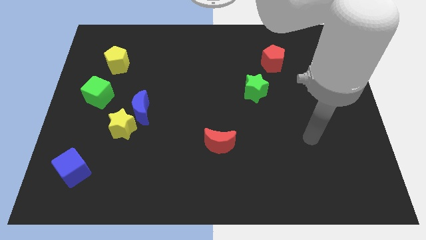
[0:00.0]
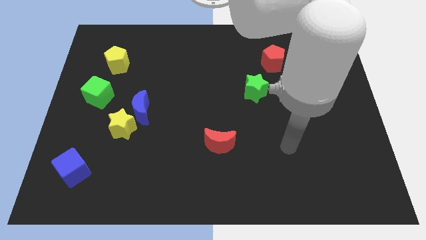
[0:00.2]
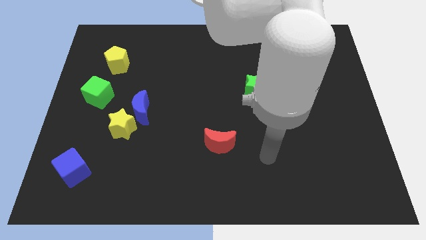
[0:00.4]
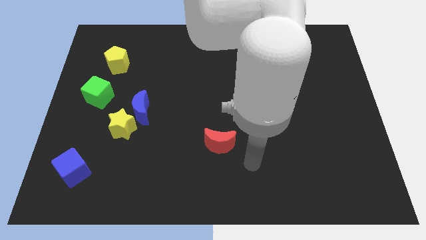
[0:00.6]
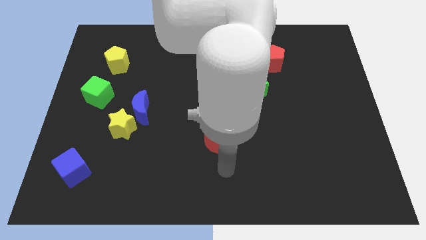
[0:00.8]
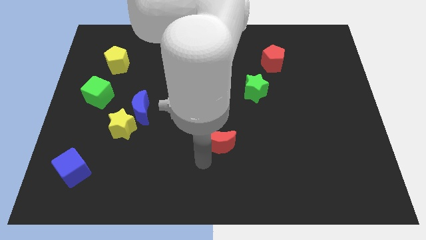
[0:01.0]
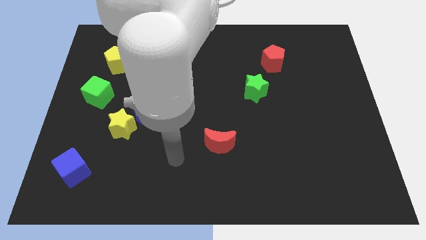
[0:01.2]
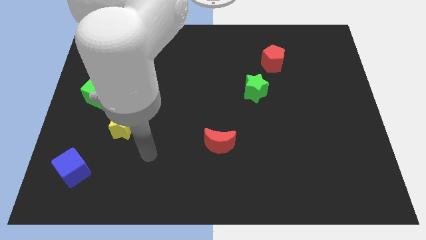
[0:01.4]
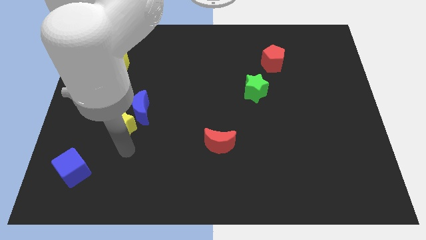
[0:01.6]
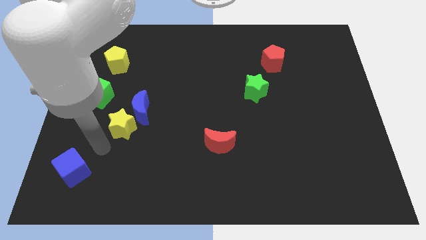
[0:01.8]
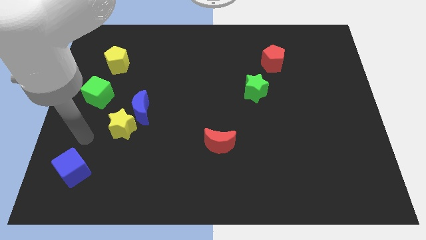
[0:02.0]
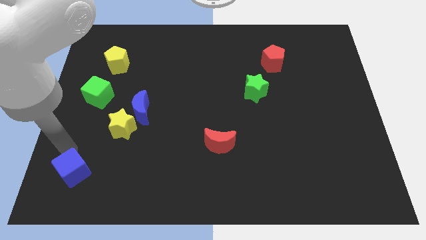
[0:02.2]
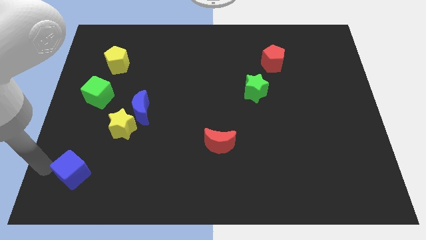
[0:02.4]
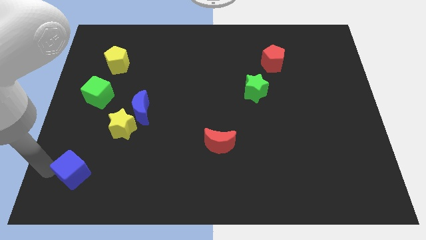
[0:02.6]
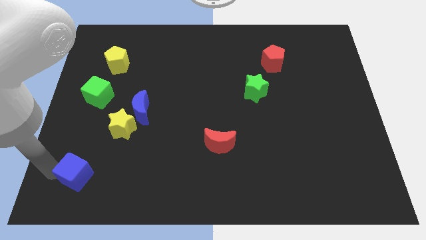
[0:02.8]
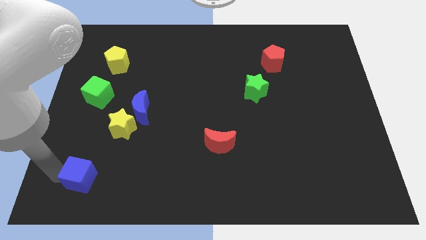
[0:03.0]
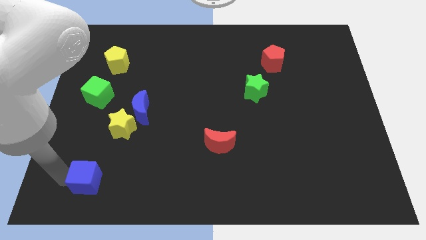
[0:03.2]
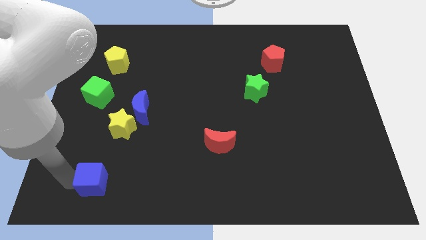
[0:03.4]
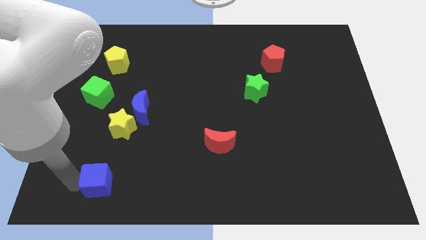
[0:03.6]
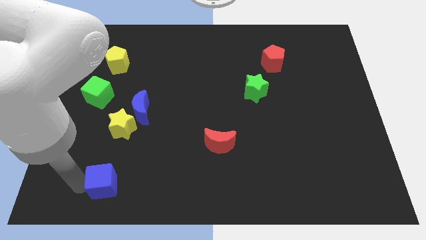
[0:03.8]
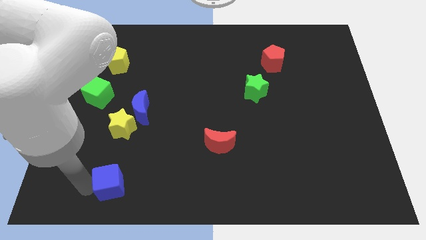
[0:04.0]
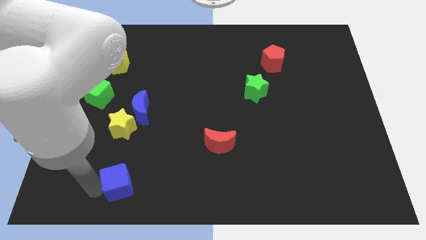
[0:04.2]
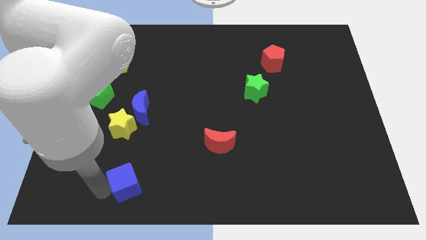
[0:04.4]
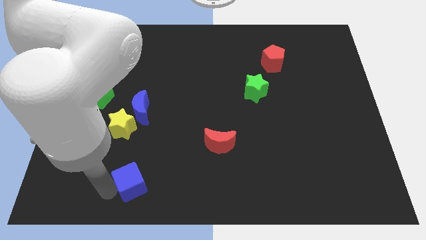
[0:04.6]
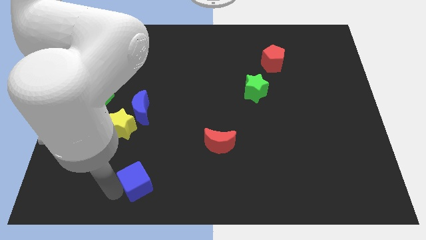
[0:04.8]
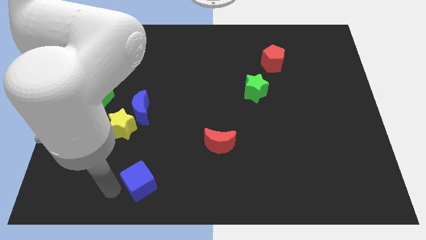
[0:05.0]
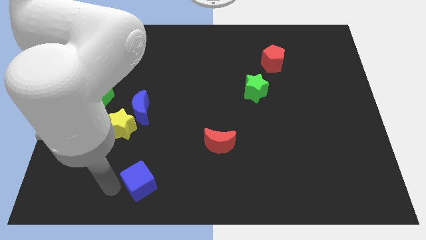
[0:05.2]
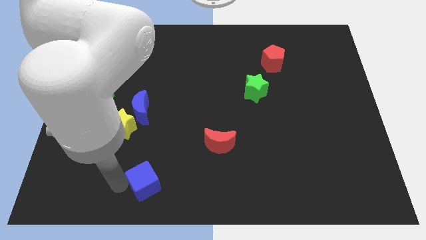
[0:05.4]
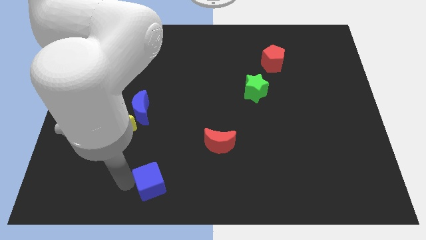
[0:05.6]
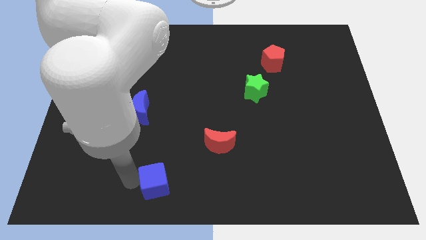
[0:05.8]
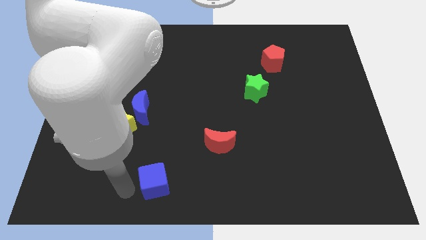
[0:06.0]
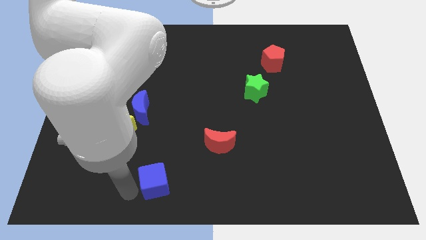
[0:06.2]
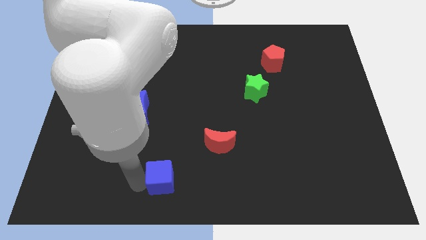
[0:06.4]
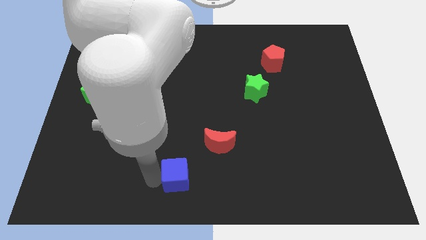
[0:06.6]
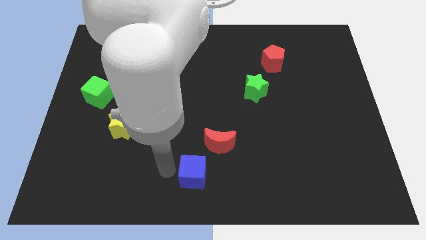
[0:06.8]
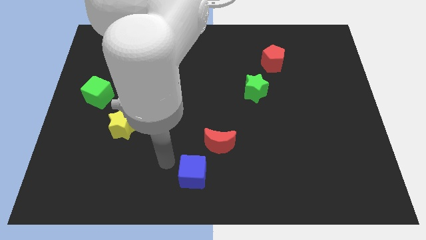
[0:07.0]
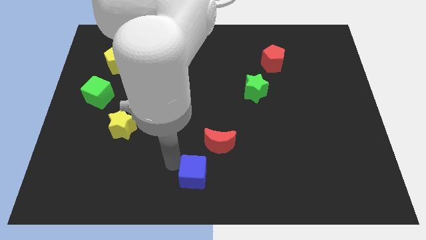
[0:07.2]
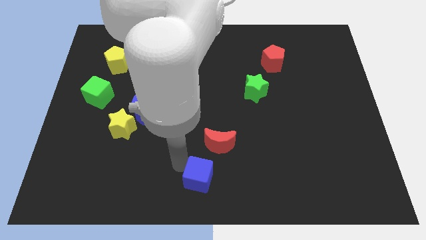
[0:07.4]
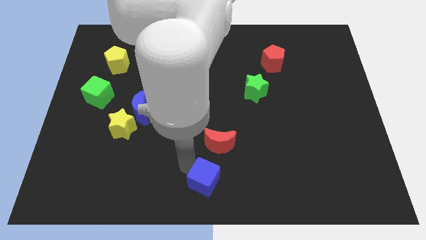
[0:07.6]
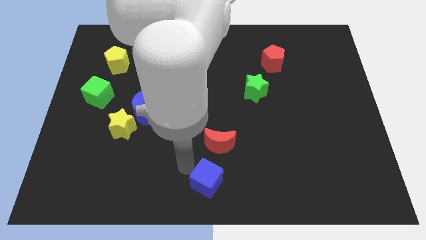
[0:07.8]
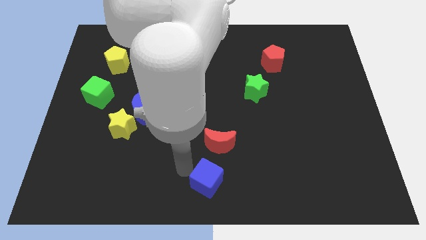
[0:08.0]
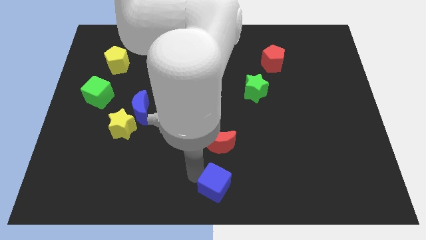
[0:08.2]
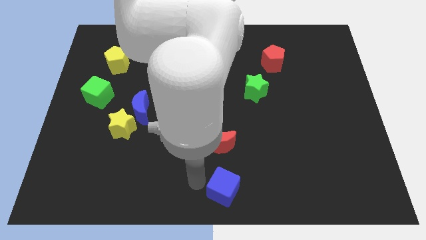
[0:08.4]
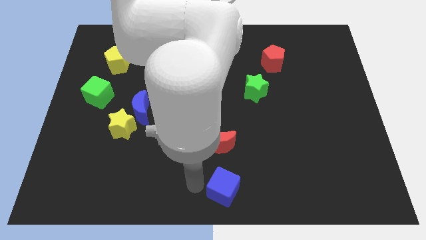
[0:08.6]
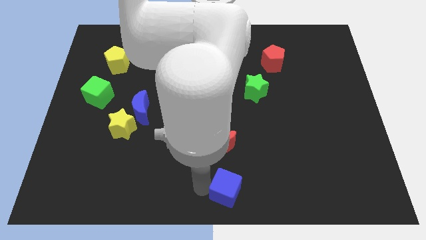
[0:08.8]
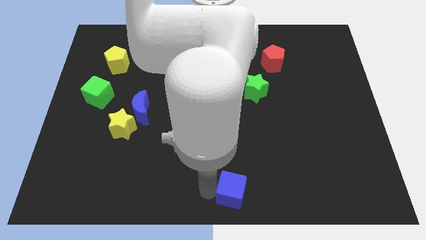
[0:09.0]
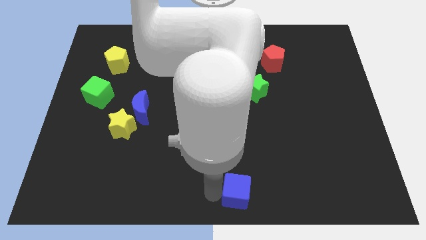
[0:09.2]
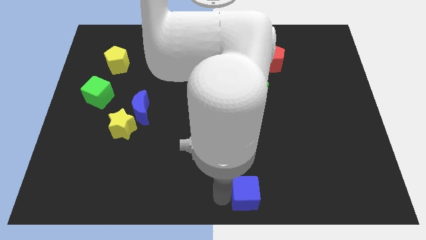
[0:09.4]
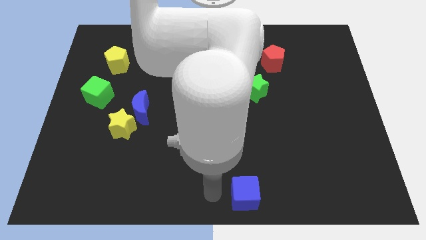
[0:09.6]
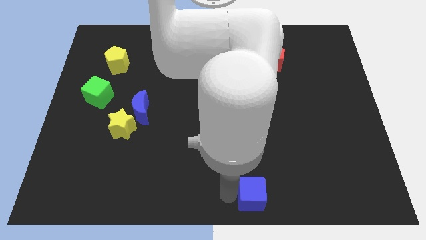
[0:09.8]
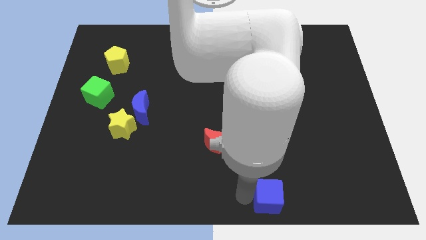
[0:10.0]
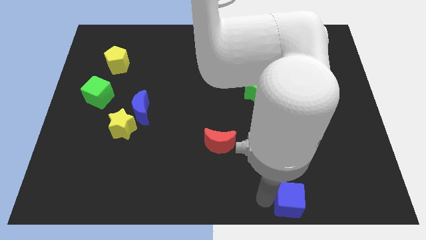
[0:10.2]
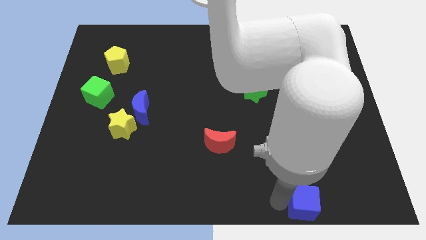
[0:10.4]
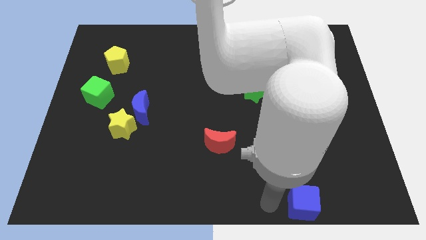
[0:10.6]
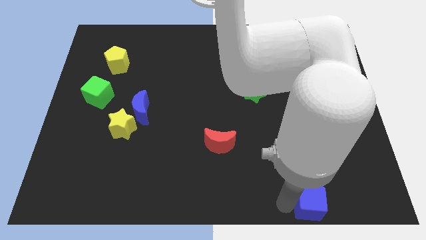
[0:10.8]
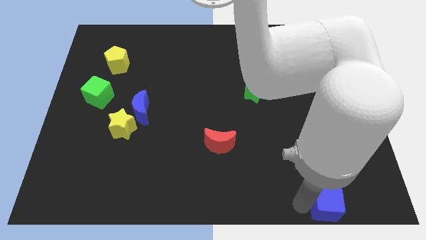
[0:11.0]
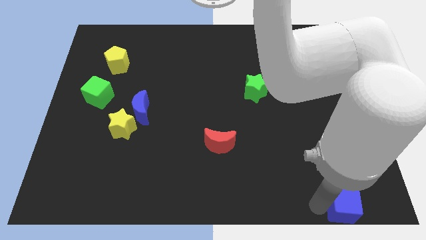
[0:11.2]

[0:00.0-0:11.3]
slide the blue cube to the lower right corner

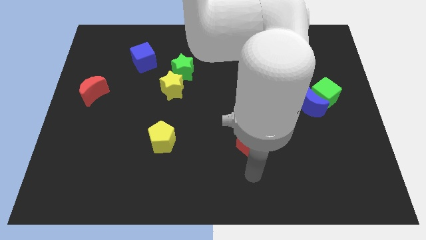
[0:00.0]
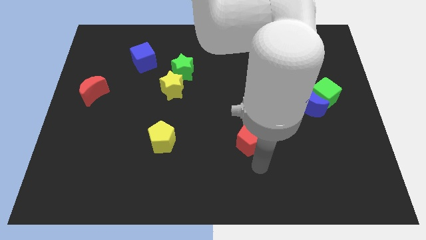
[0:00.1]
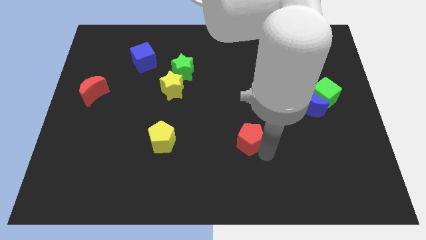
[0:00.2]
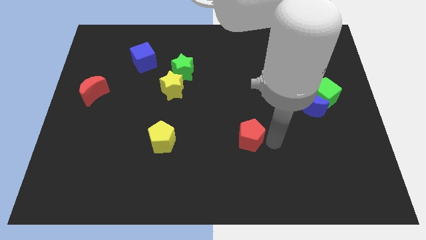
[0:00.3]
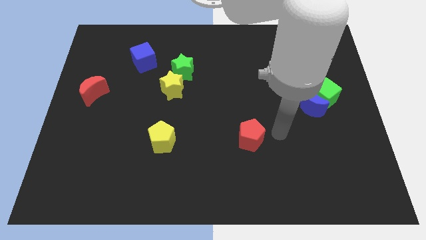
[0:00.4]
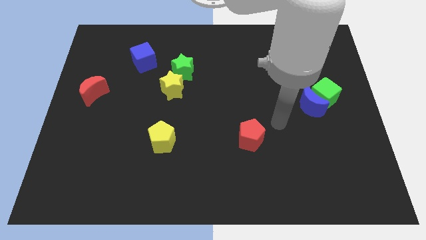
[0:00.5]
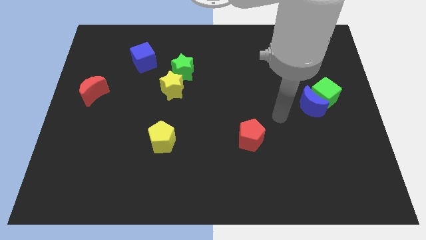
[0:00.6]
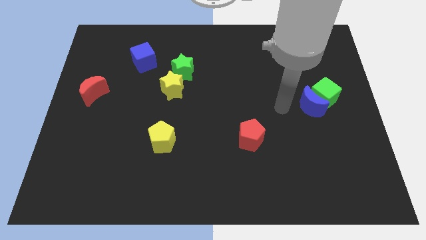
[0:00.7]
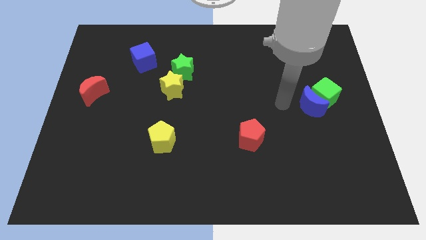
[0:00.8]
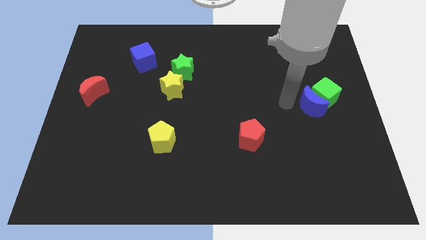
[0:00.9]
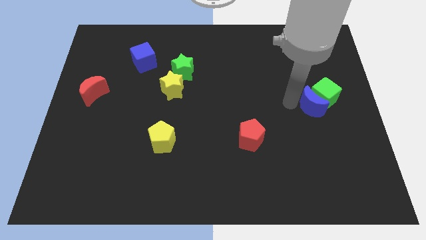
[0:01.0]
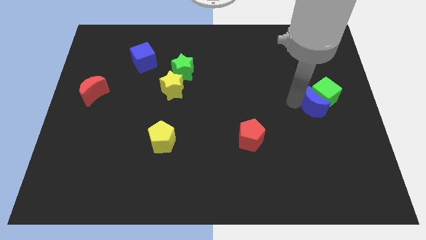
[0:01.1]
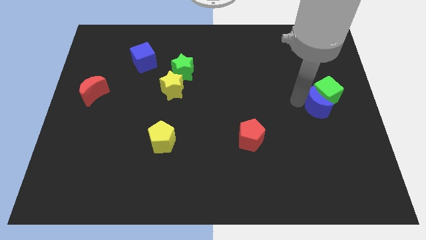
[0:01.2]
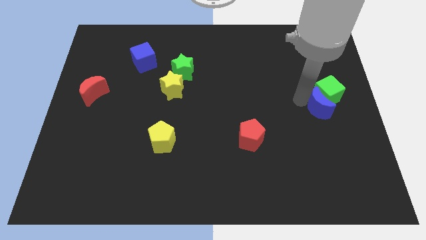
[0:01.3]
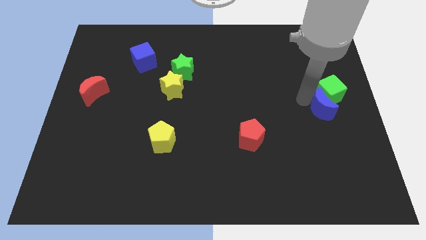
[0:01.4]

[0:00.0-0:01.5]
put the blue moon to the center right
